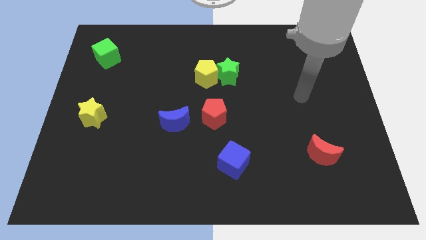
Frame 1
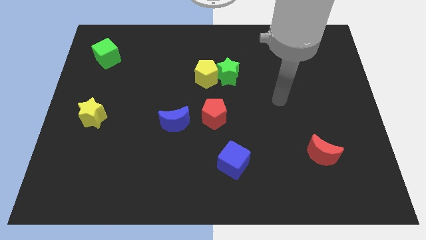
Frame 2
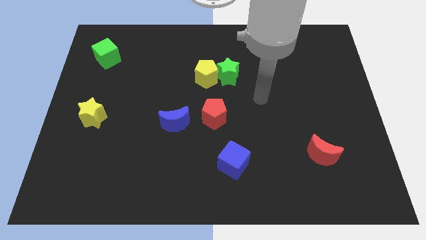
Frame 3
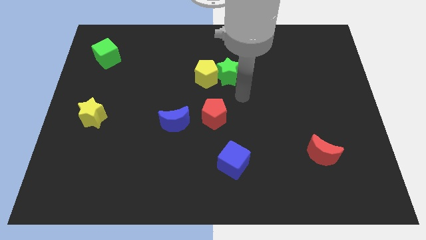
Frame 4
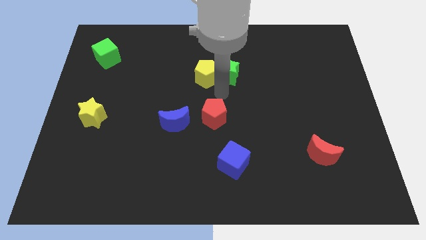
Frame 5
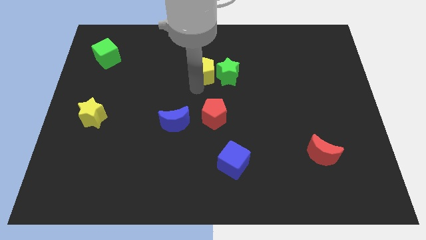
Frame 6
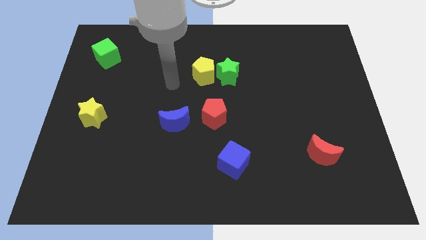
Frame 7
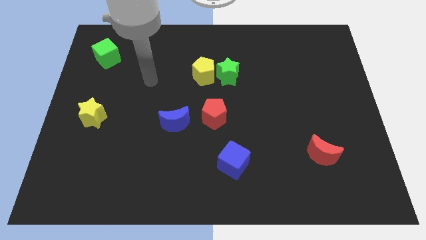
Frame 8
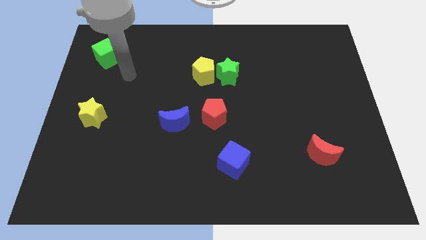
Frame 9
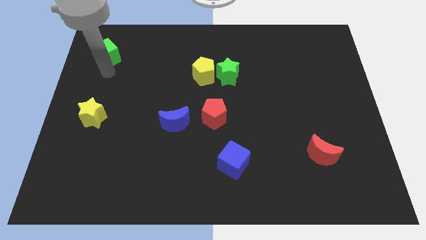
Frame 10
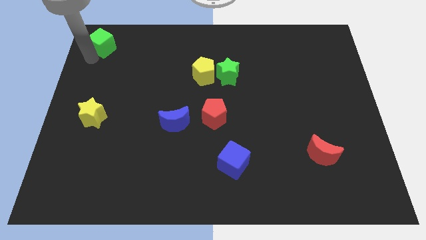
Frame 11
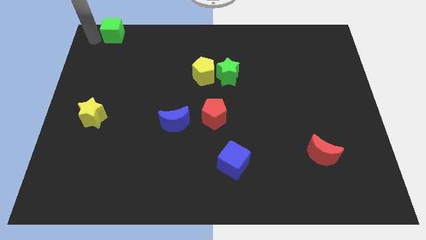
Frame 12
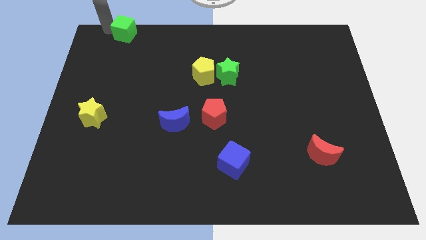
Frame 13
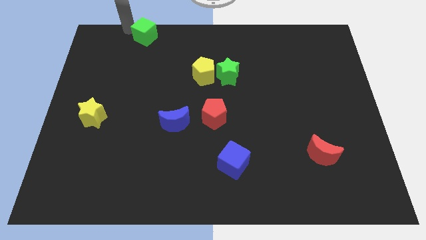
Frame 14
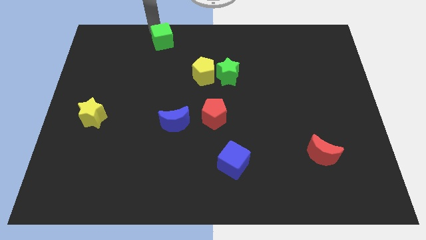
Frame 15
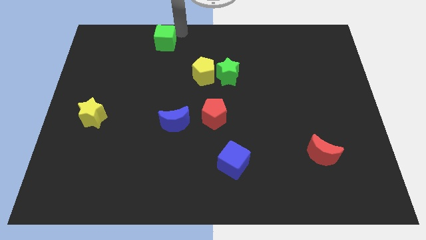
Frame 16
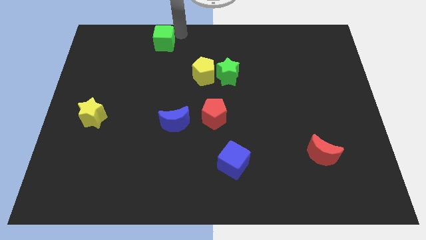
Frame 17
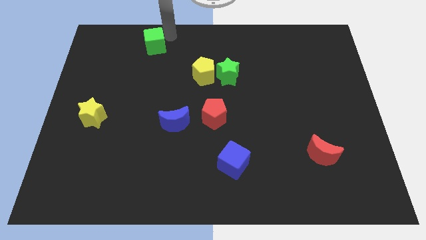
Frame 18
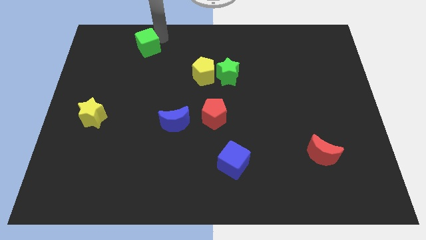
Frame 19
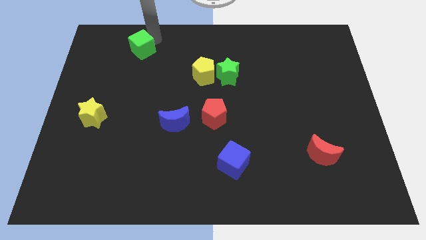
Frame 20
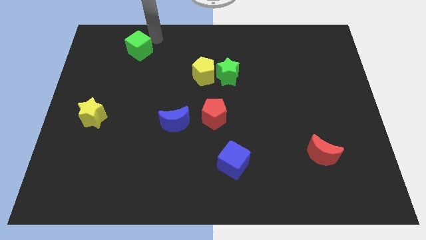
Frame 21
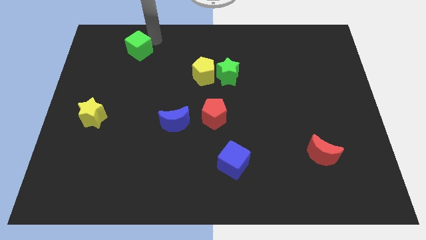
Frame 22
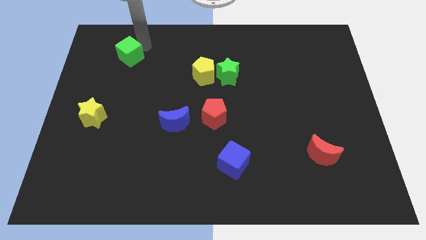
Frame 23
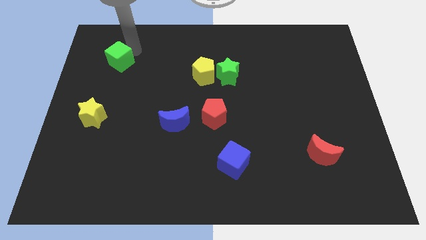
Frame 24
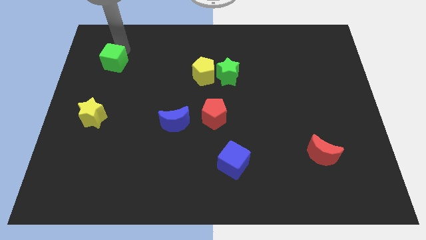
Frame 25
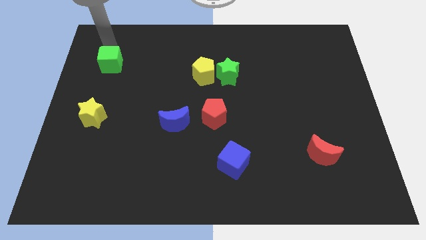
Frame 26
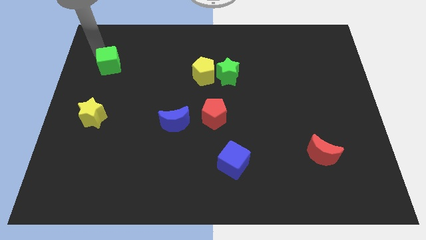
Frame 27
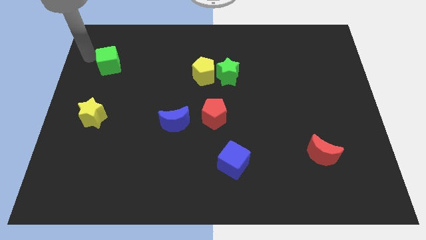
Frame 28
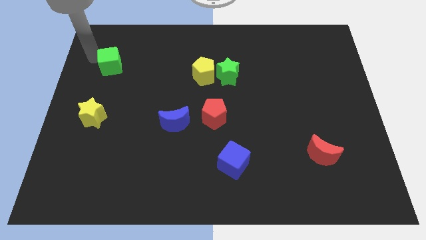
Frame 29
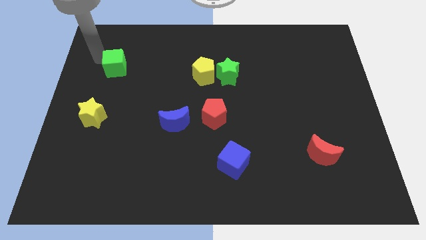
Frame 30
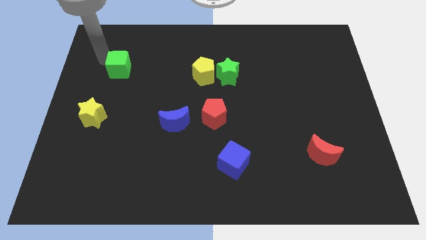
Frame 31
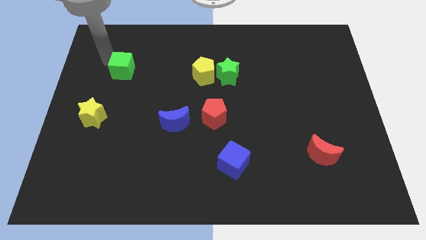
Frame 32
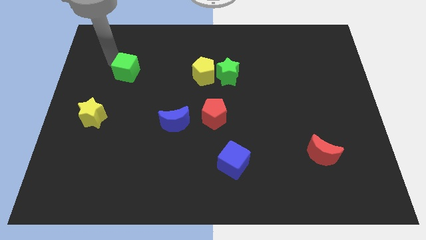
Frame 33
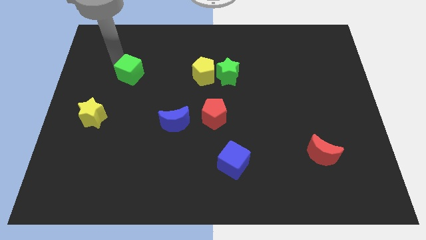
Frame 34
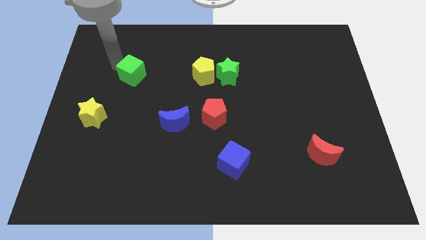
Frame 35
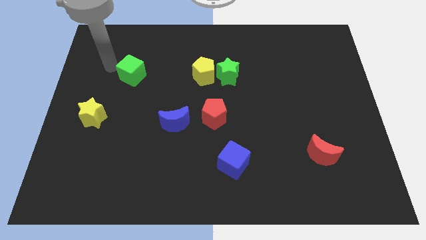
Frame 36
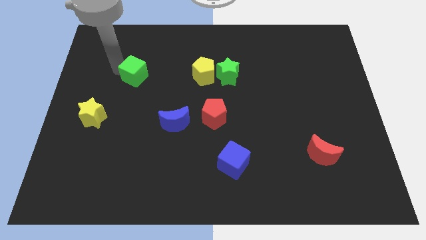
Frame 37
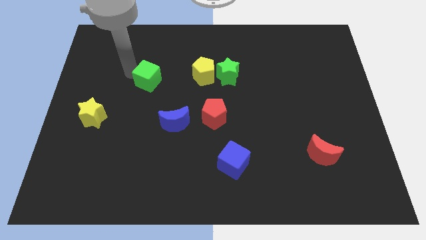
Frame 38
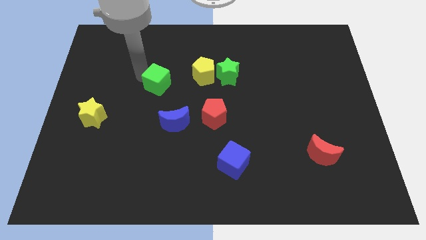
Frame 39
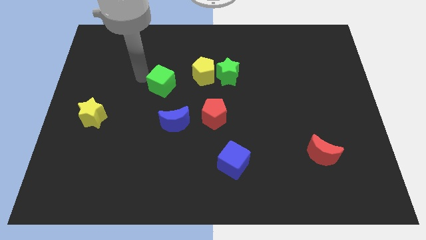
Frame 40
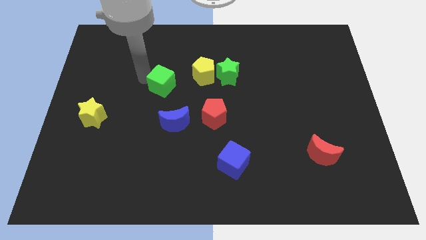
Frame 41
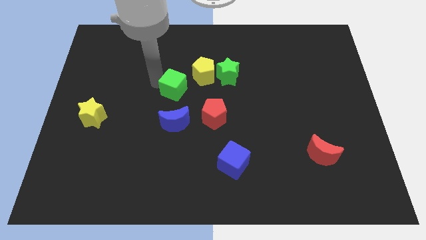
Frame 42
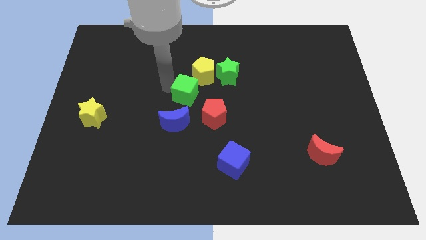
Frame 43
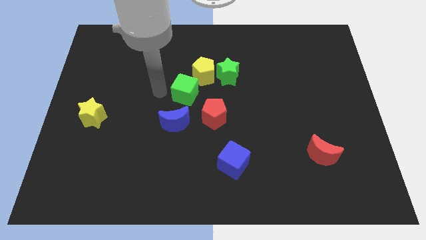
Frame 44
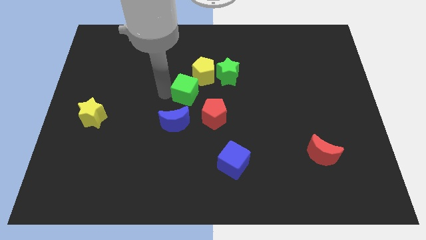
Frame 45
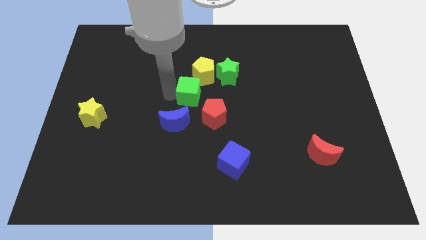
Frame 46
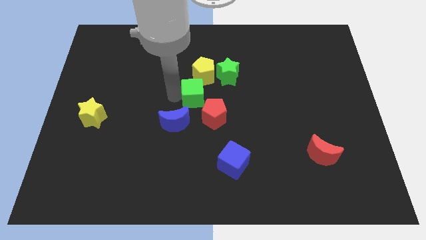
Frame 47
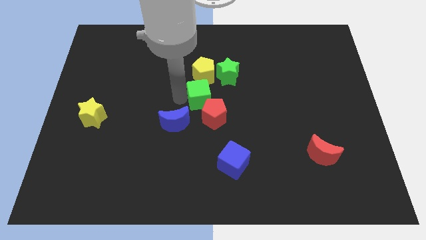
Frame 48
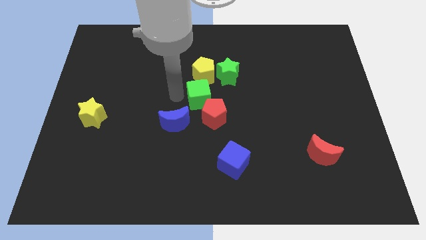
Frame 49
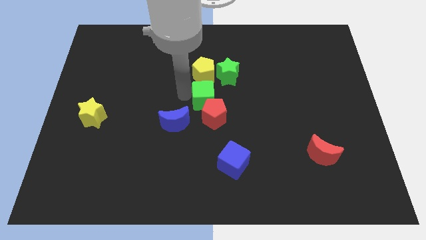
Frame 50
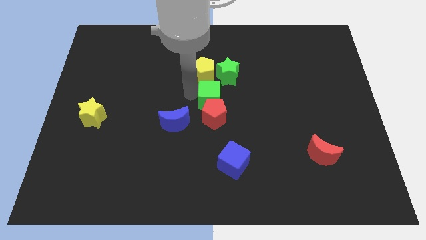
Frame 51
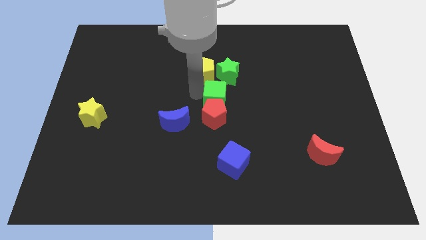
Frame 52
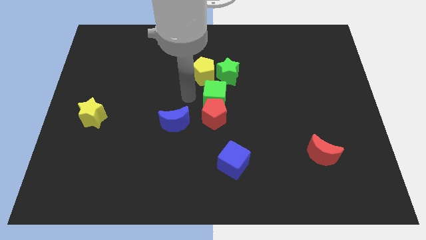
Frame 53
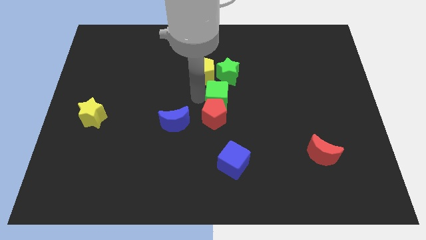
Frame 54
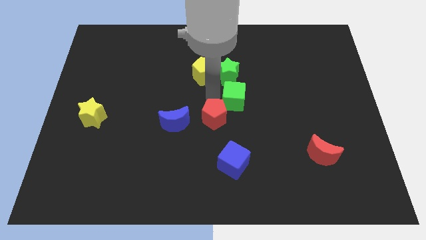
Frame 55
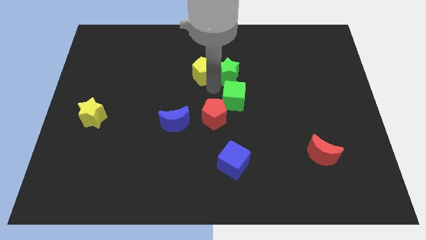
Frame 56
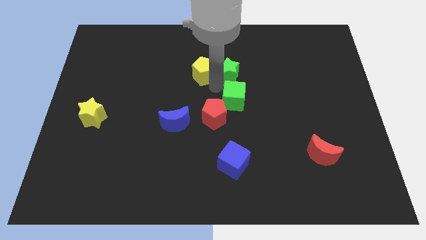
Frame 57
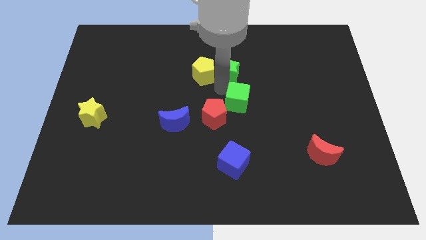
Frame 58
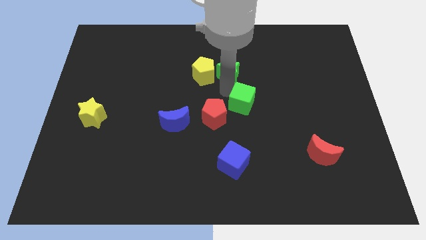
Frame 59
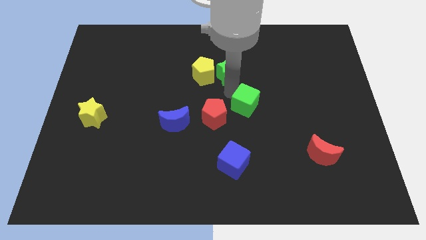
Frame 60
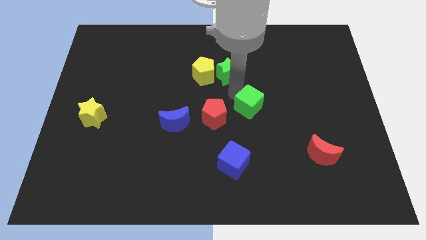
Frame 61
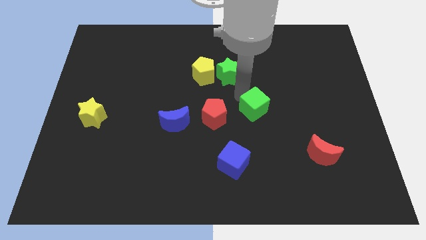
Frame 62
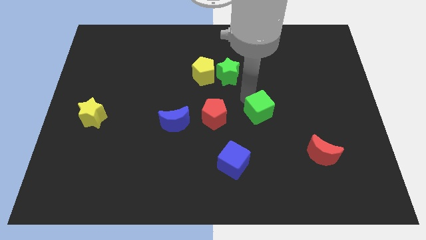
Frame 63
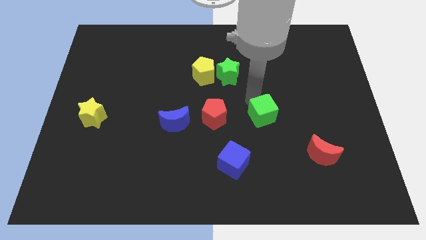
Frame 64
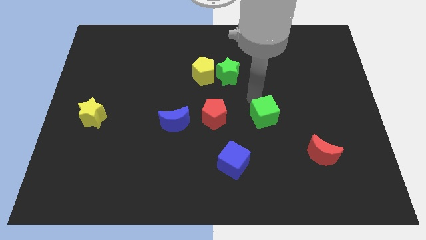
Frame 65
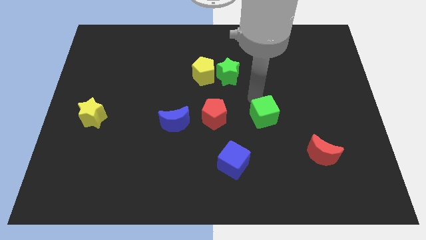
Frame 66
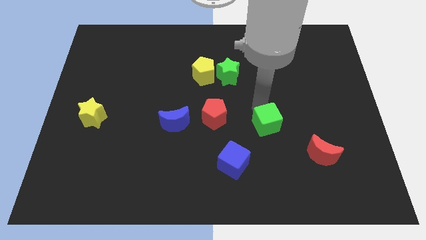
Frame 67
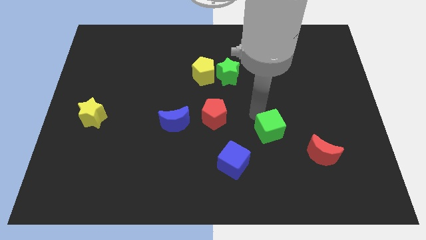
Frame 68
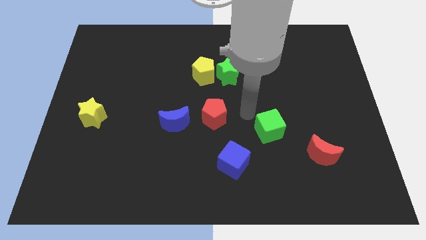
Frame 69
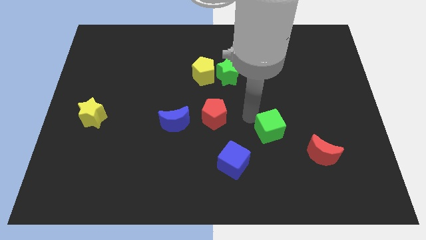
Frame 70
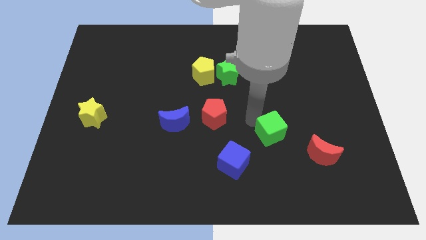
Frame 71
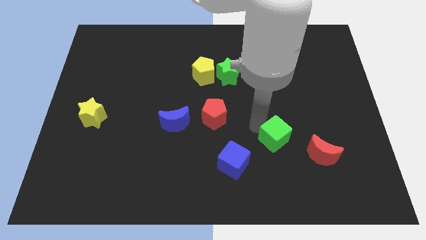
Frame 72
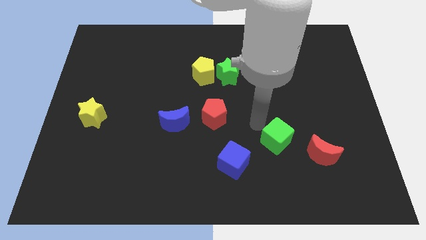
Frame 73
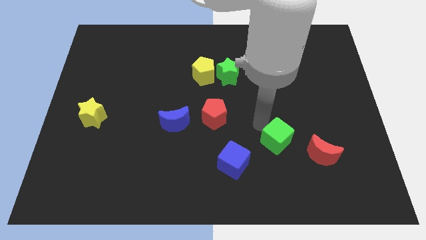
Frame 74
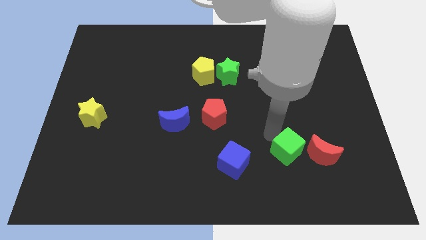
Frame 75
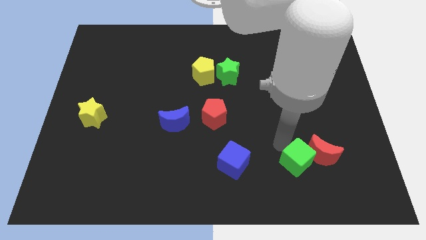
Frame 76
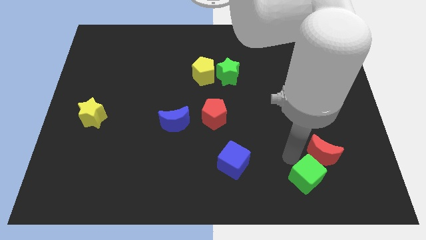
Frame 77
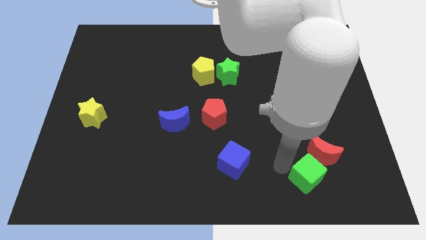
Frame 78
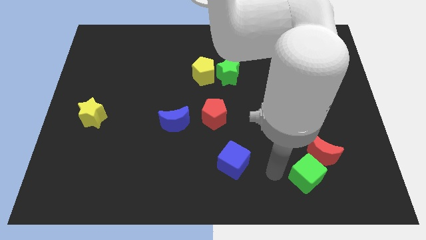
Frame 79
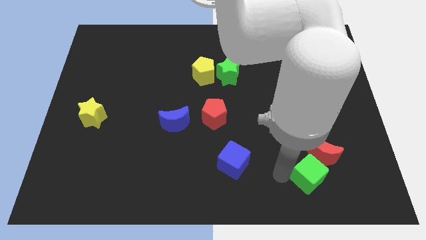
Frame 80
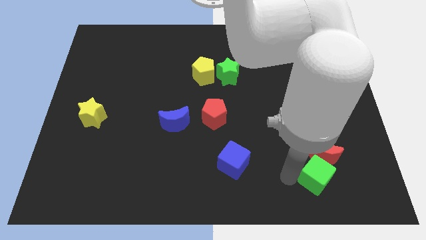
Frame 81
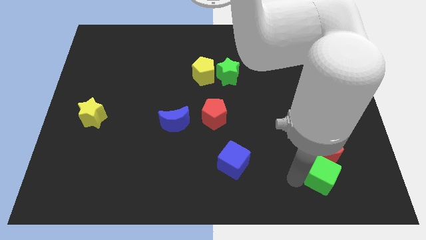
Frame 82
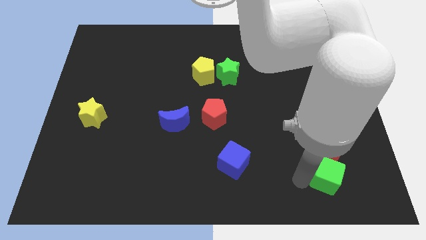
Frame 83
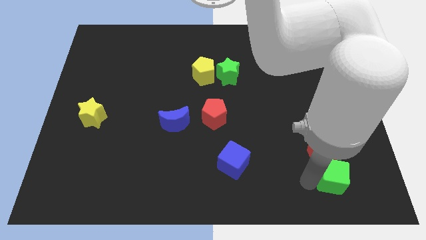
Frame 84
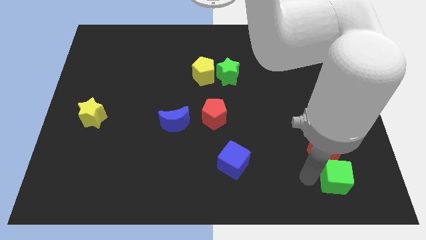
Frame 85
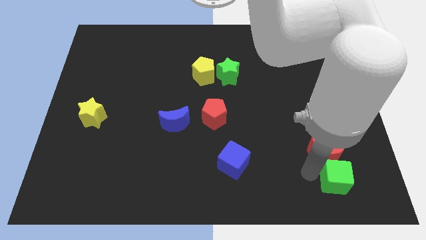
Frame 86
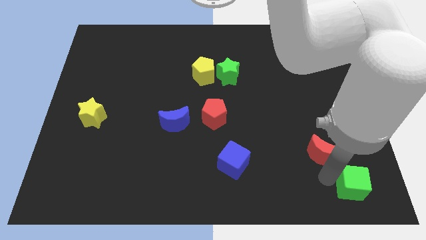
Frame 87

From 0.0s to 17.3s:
slide the green cube to the bottom right corner
